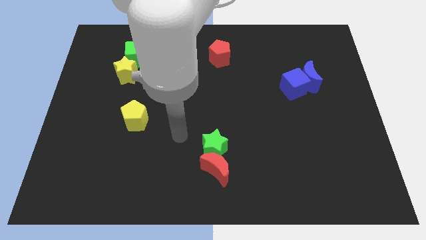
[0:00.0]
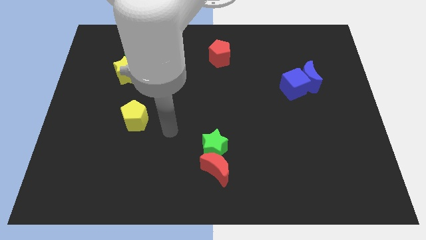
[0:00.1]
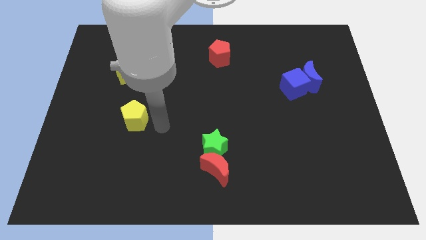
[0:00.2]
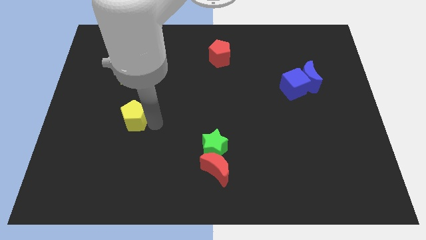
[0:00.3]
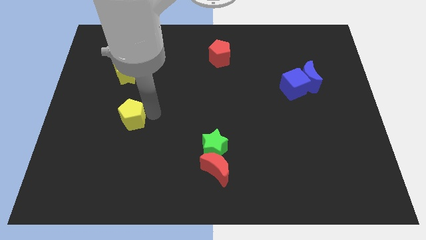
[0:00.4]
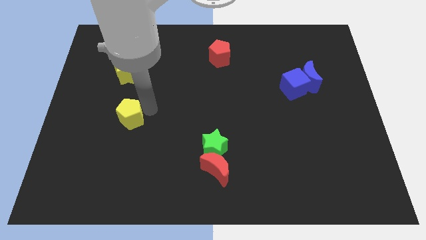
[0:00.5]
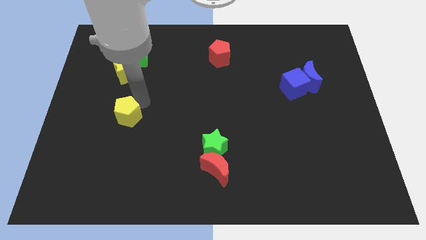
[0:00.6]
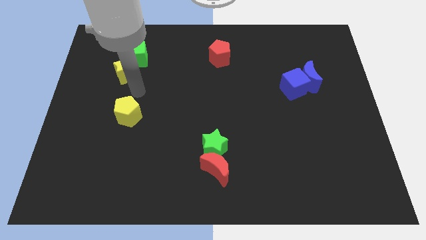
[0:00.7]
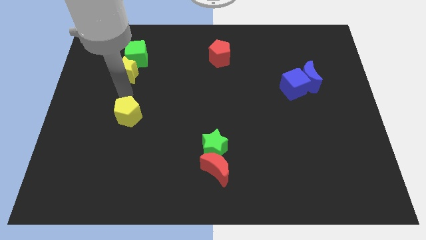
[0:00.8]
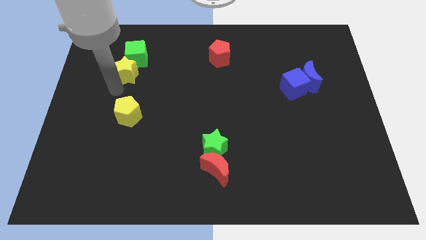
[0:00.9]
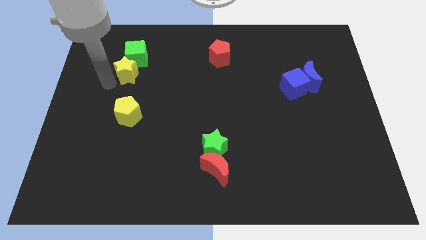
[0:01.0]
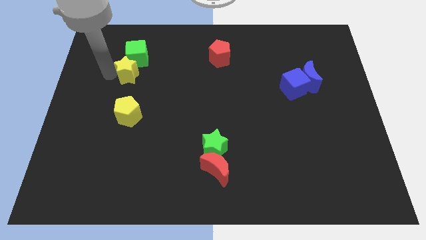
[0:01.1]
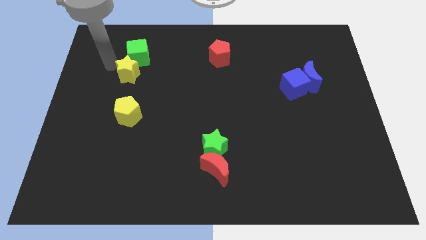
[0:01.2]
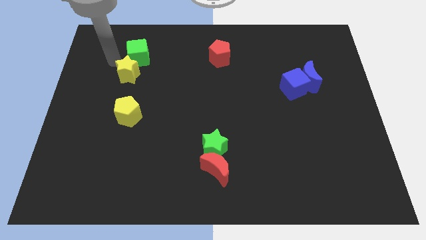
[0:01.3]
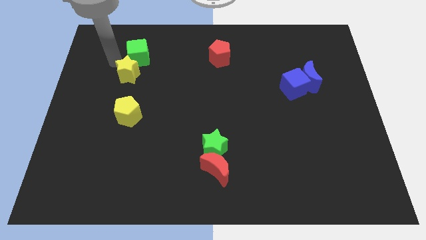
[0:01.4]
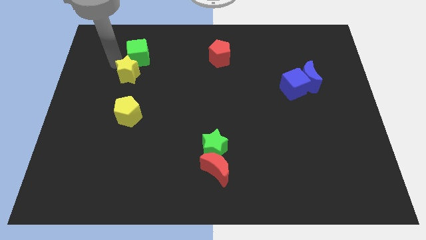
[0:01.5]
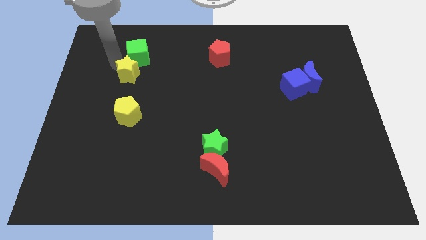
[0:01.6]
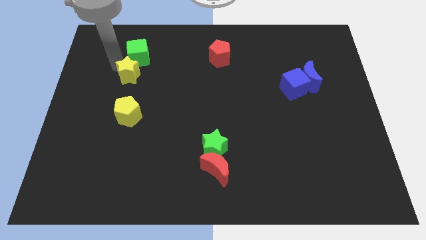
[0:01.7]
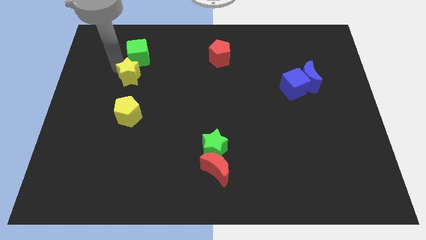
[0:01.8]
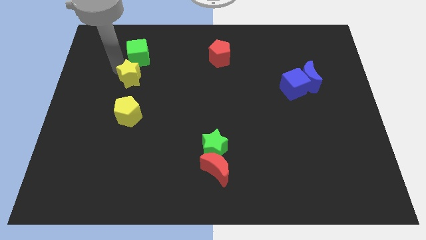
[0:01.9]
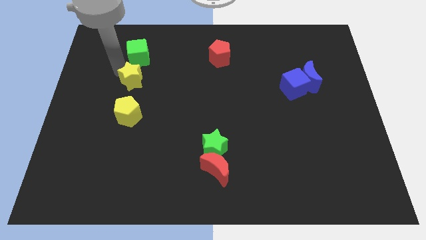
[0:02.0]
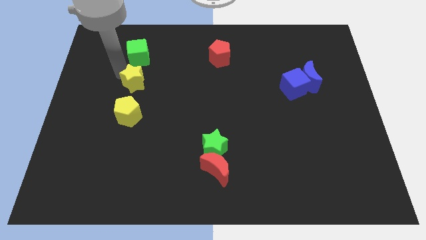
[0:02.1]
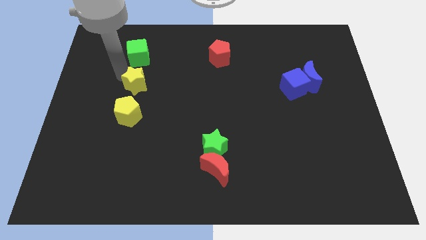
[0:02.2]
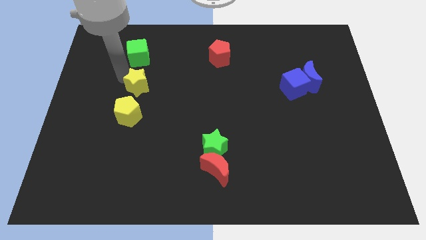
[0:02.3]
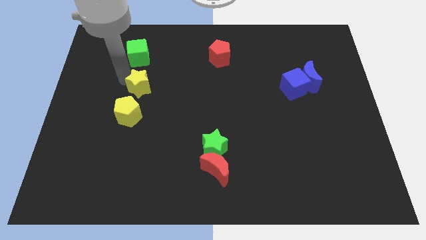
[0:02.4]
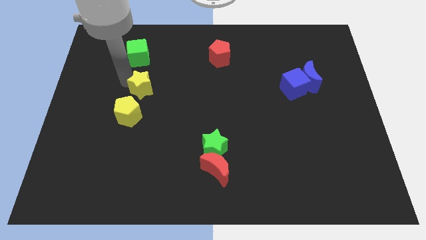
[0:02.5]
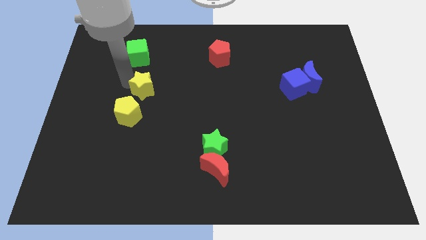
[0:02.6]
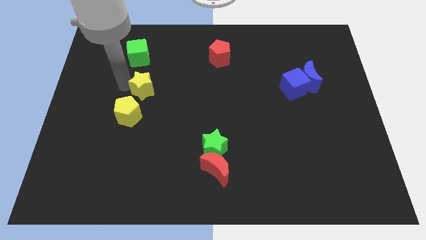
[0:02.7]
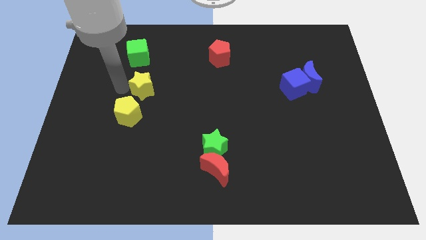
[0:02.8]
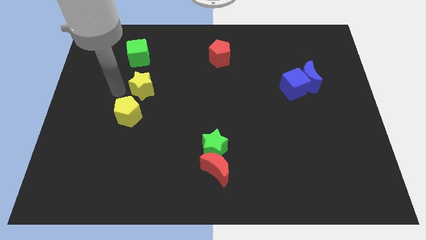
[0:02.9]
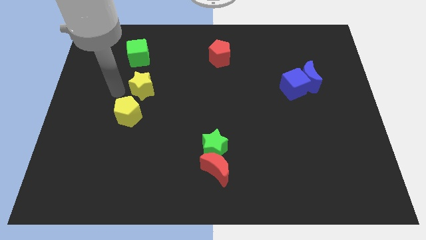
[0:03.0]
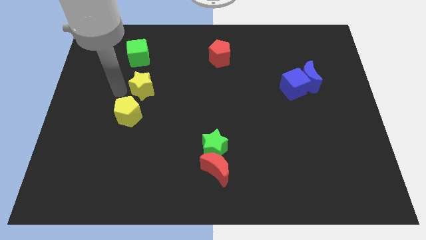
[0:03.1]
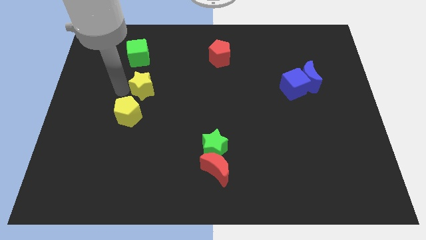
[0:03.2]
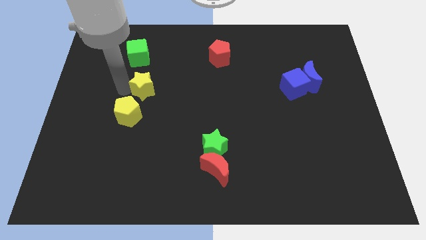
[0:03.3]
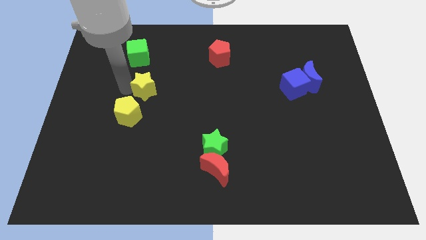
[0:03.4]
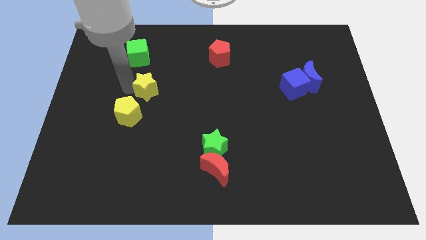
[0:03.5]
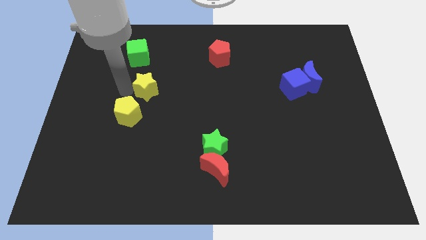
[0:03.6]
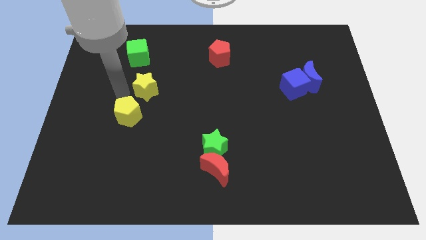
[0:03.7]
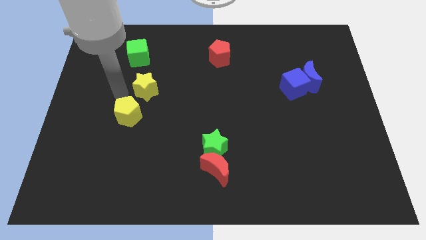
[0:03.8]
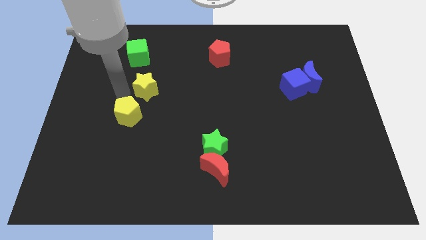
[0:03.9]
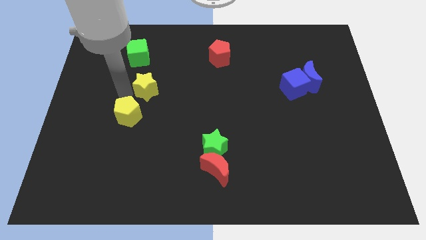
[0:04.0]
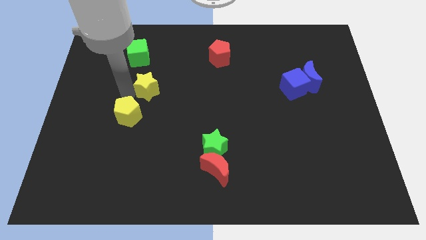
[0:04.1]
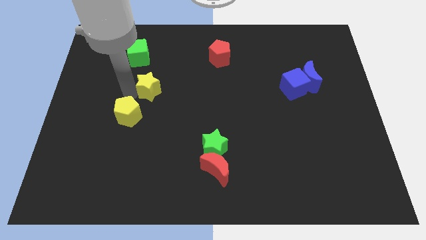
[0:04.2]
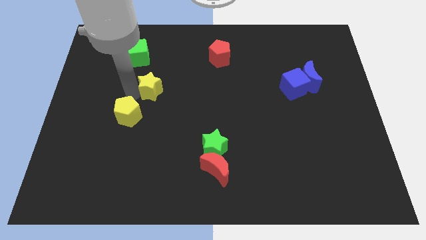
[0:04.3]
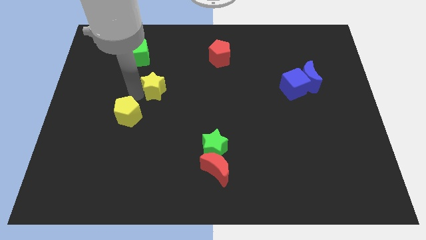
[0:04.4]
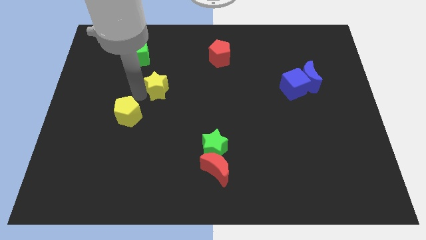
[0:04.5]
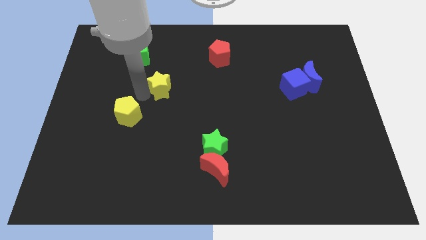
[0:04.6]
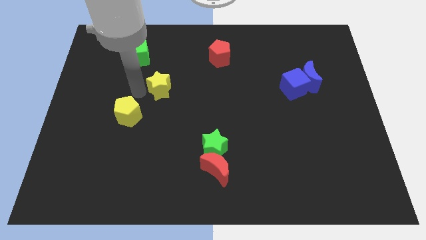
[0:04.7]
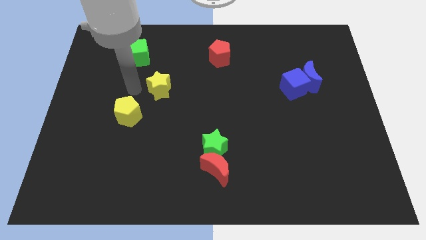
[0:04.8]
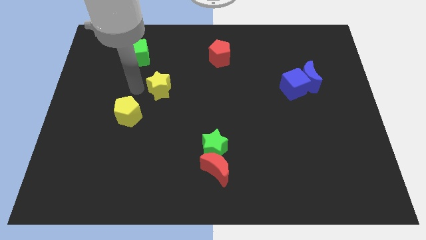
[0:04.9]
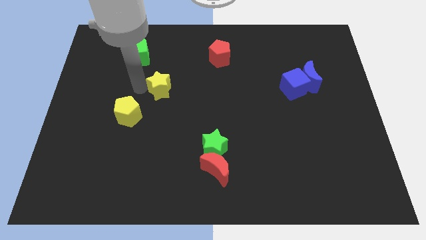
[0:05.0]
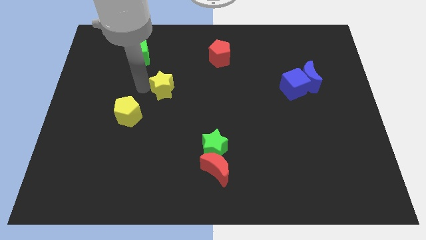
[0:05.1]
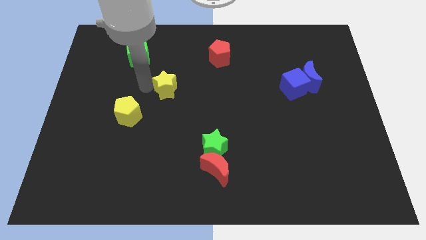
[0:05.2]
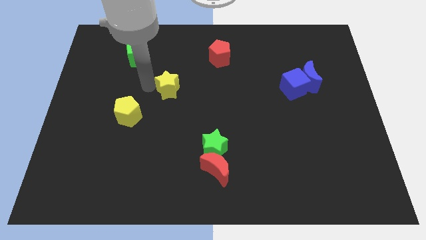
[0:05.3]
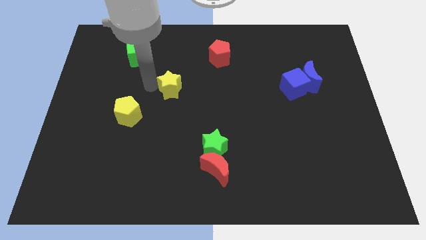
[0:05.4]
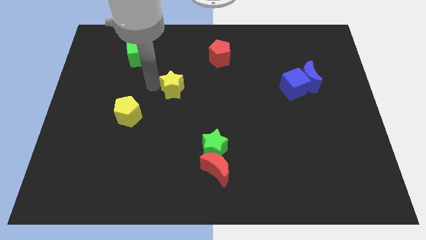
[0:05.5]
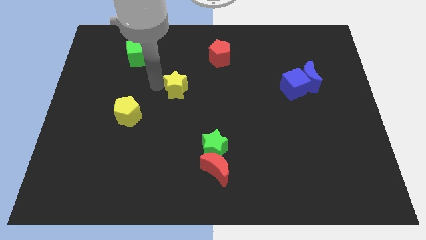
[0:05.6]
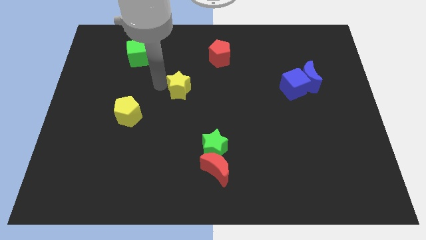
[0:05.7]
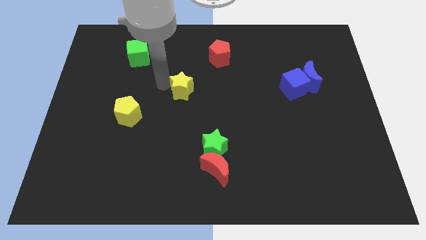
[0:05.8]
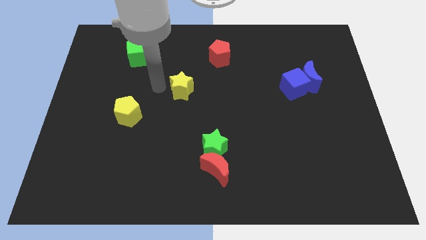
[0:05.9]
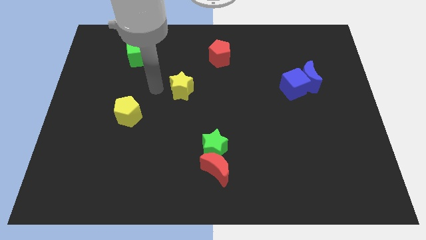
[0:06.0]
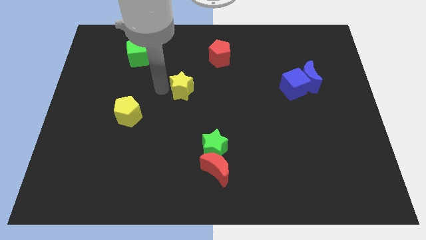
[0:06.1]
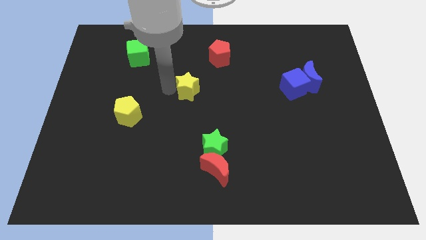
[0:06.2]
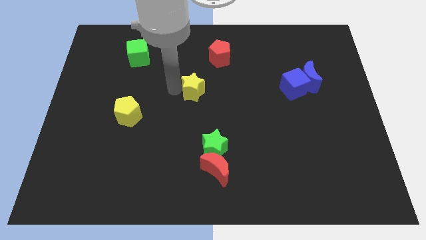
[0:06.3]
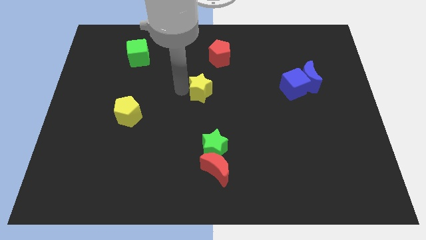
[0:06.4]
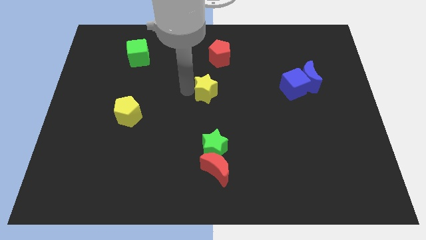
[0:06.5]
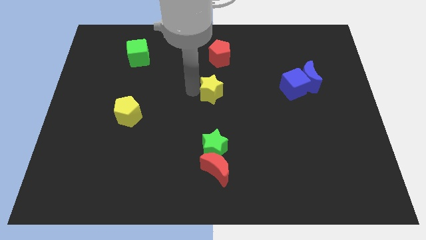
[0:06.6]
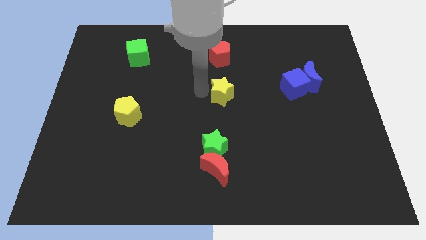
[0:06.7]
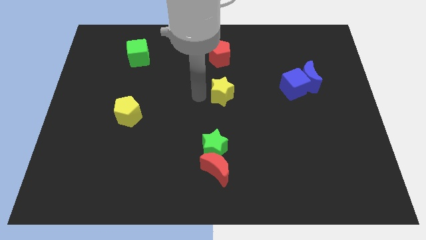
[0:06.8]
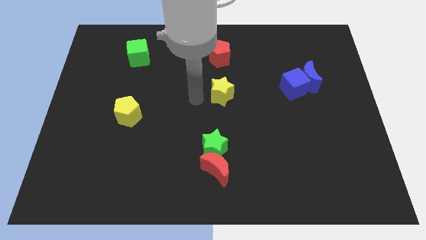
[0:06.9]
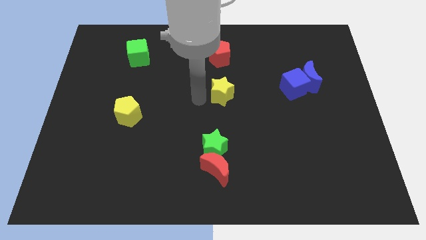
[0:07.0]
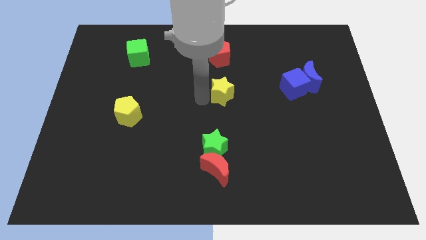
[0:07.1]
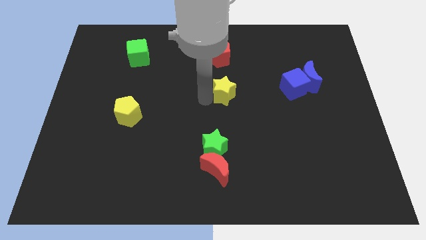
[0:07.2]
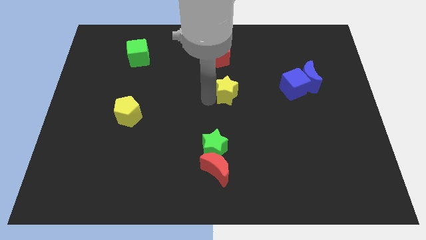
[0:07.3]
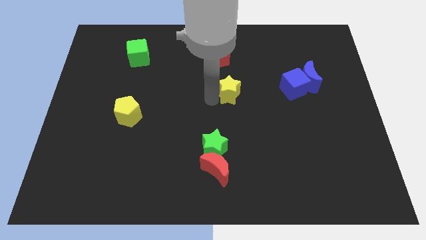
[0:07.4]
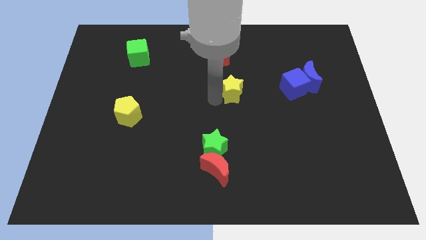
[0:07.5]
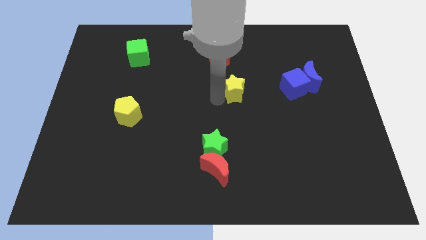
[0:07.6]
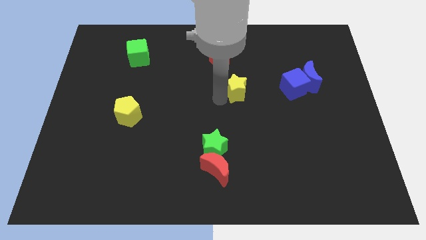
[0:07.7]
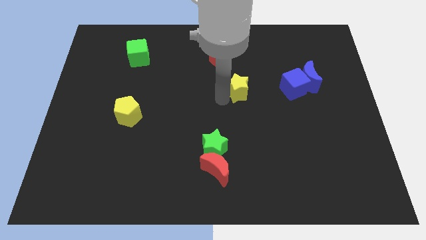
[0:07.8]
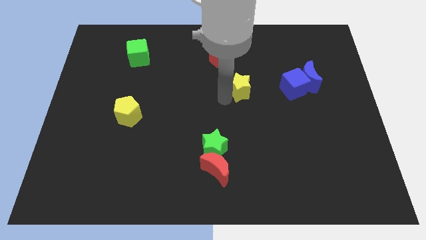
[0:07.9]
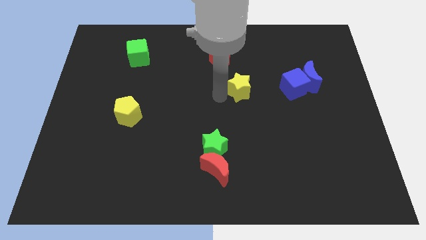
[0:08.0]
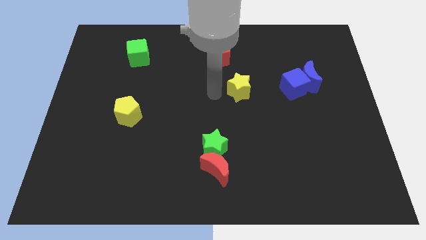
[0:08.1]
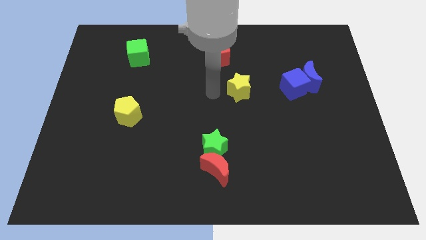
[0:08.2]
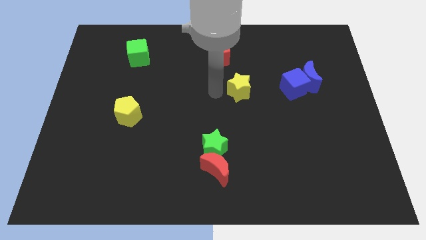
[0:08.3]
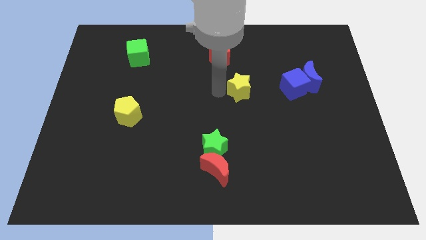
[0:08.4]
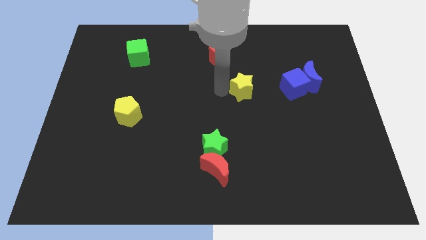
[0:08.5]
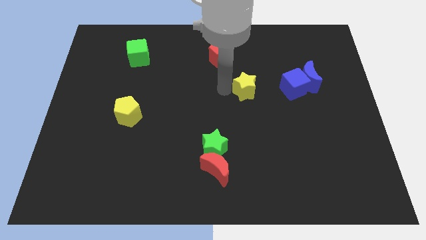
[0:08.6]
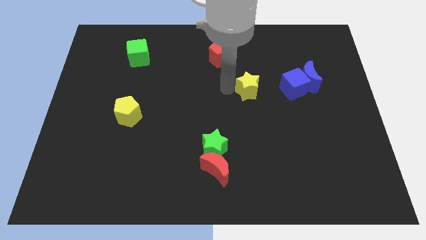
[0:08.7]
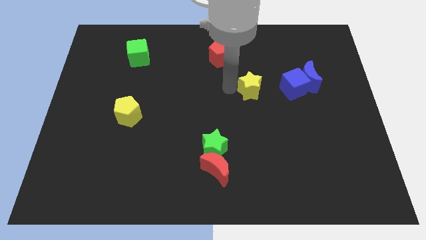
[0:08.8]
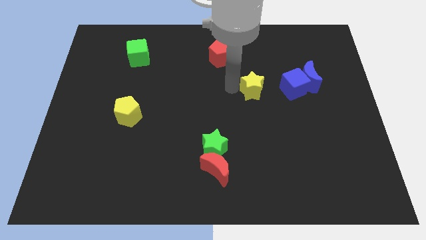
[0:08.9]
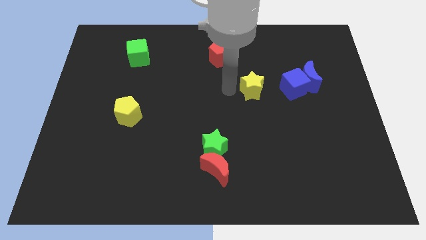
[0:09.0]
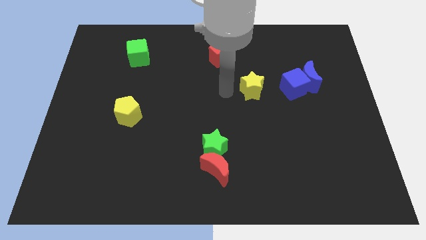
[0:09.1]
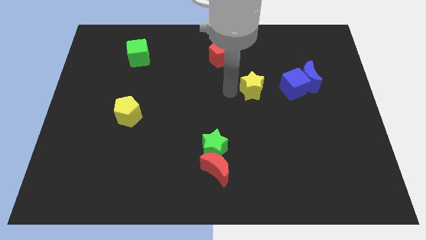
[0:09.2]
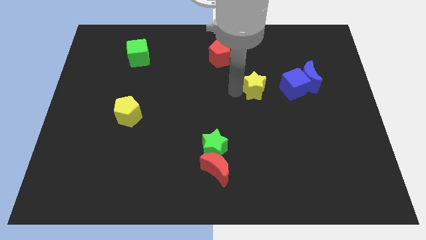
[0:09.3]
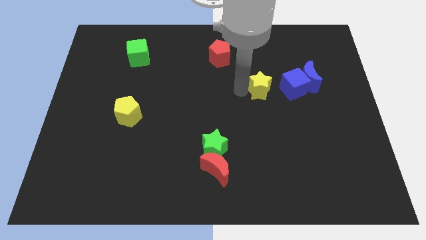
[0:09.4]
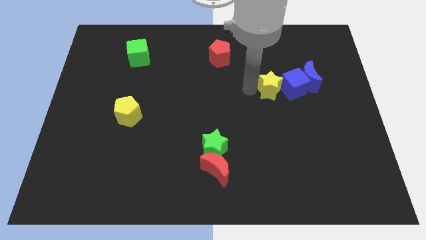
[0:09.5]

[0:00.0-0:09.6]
move the yellow star next to the blue cube
